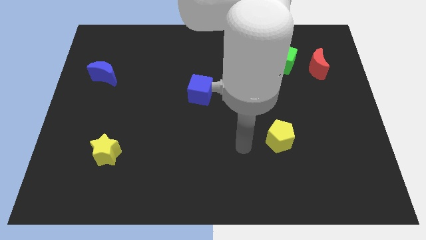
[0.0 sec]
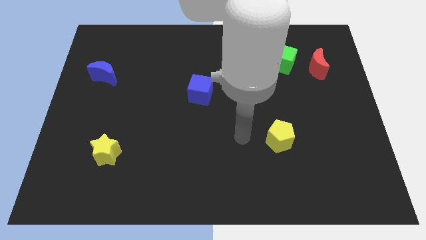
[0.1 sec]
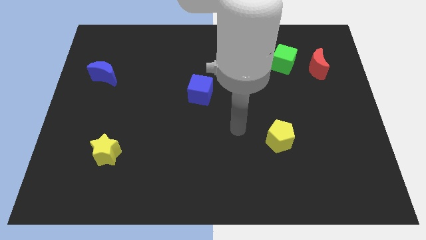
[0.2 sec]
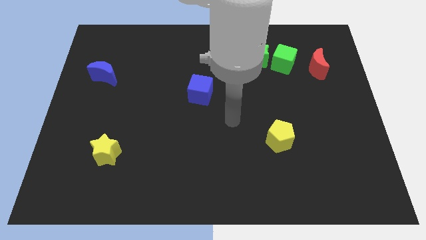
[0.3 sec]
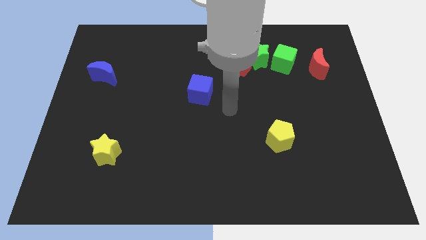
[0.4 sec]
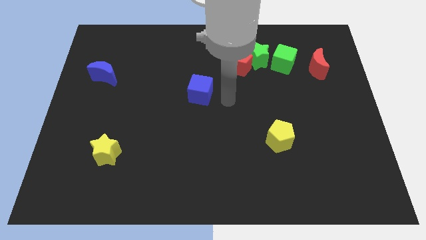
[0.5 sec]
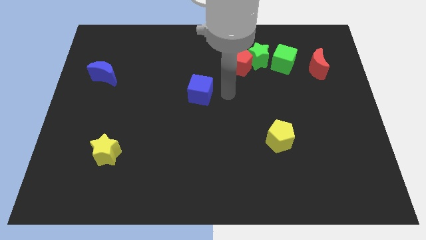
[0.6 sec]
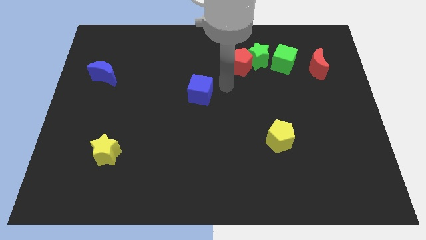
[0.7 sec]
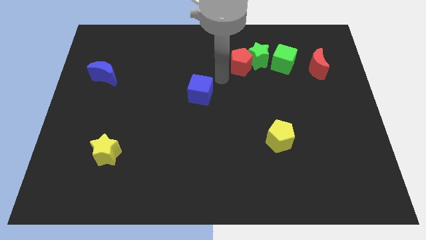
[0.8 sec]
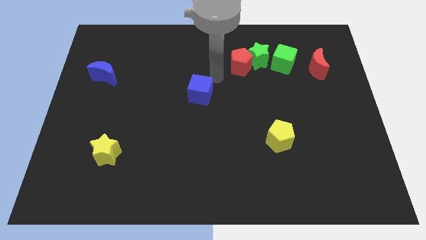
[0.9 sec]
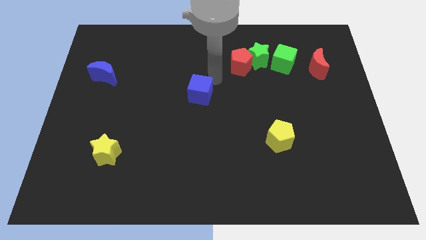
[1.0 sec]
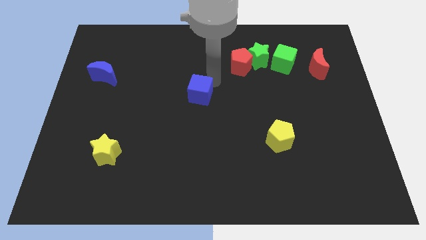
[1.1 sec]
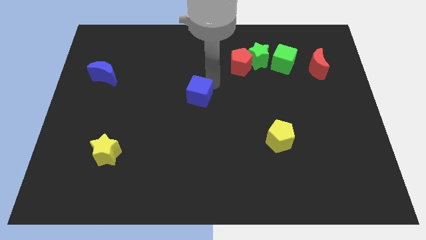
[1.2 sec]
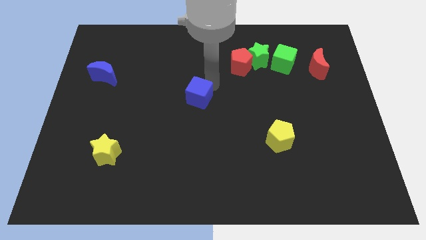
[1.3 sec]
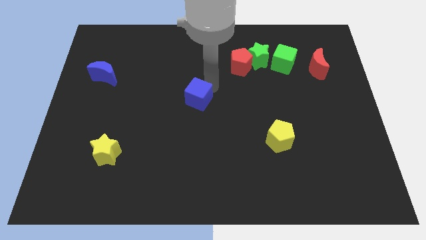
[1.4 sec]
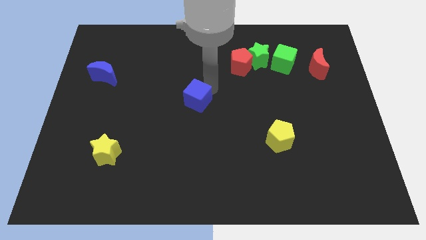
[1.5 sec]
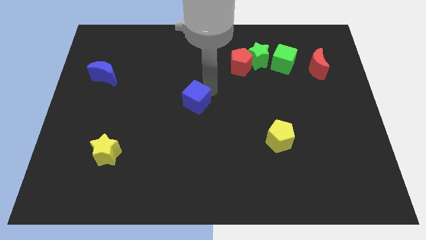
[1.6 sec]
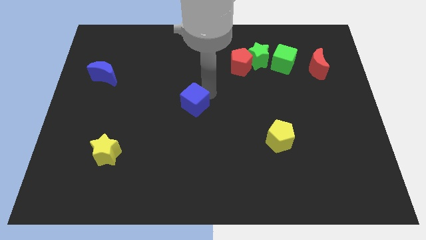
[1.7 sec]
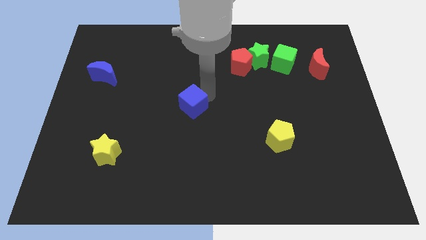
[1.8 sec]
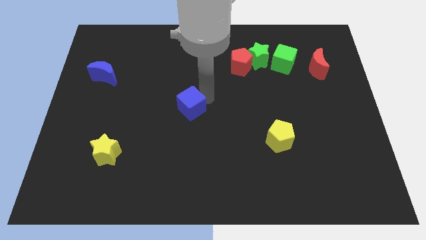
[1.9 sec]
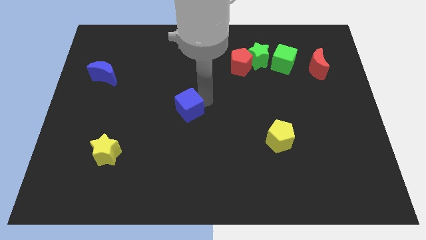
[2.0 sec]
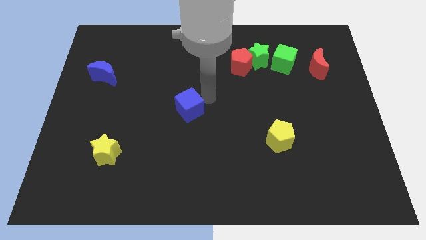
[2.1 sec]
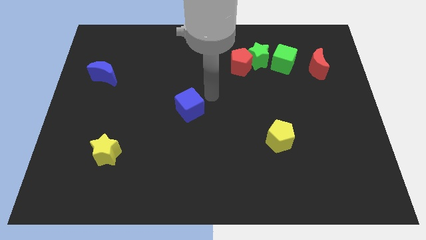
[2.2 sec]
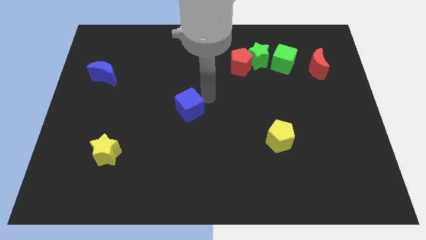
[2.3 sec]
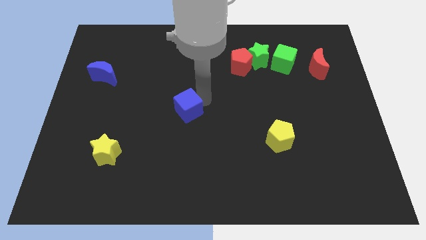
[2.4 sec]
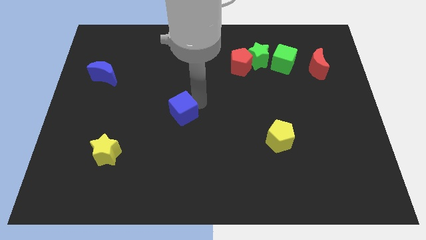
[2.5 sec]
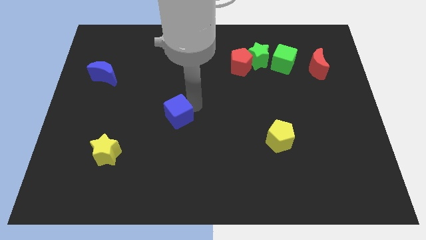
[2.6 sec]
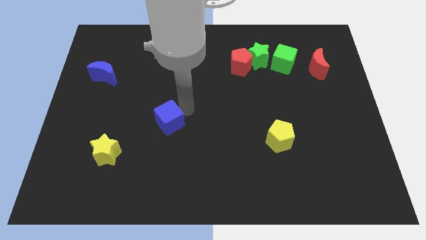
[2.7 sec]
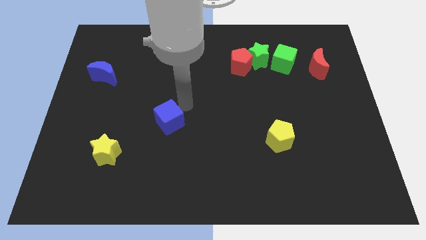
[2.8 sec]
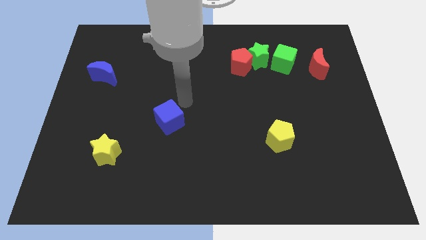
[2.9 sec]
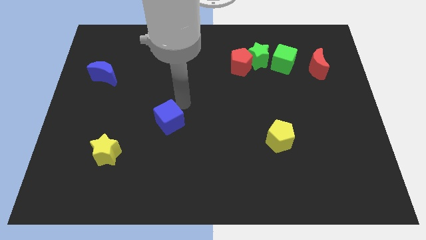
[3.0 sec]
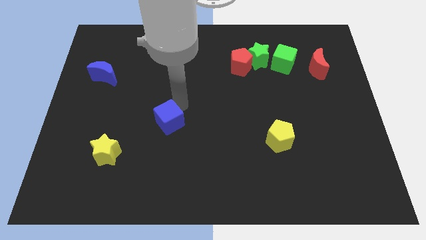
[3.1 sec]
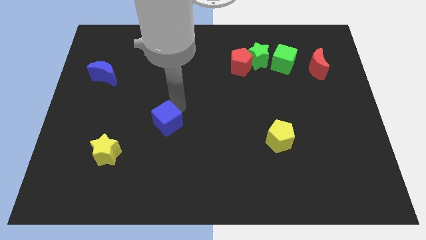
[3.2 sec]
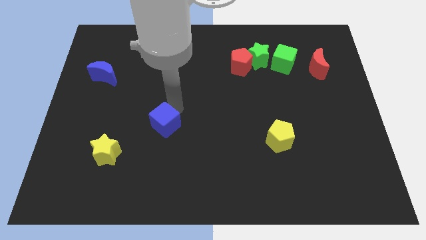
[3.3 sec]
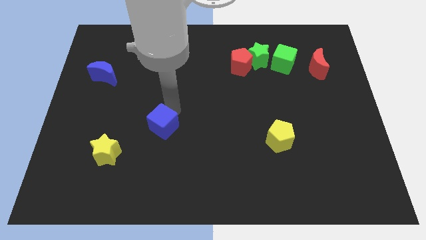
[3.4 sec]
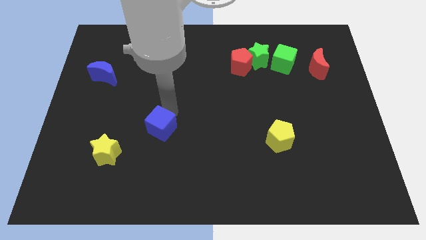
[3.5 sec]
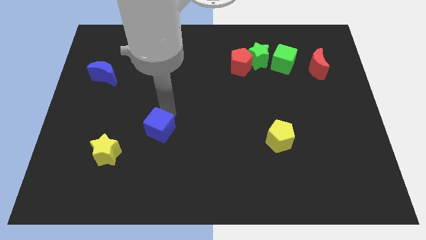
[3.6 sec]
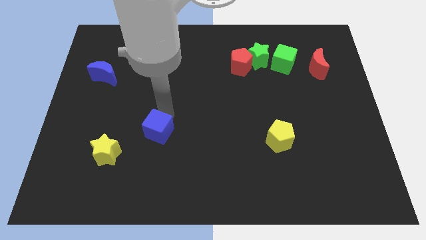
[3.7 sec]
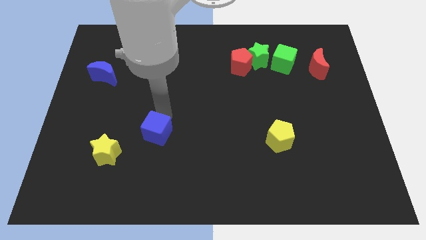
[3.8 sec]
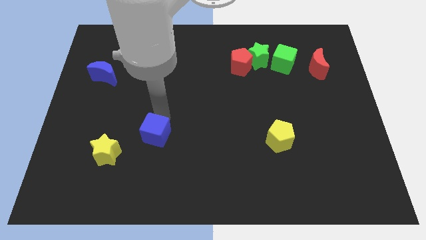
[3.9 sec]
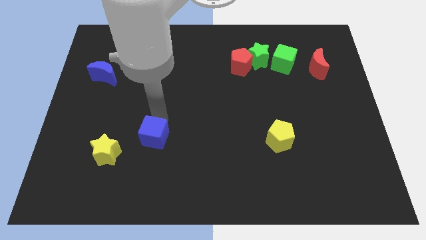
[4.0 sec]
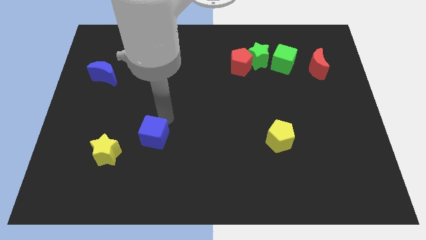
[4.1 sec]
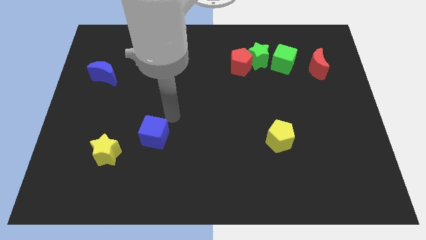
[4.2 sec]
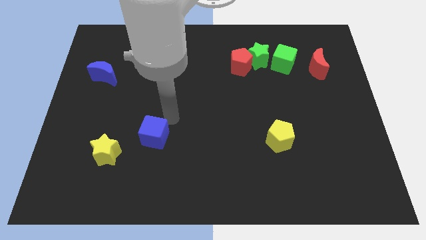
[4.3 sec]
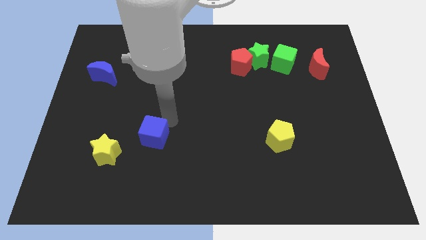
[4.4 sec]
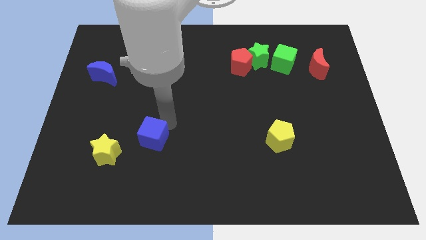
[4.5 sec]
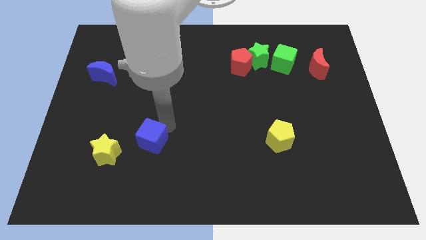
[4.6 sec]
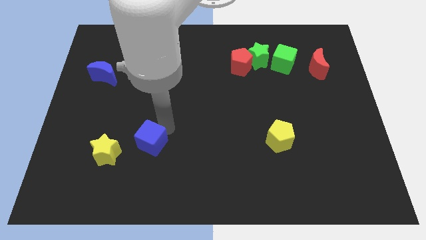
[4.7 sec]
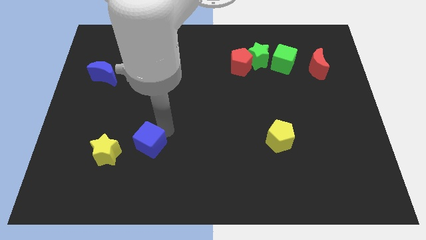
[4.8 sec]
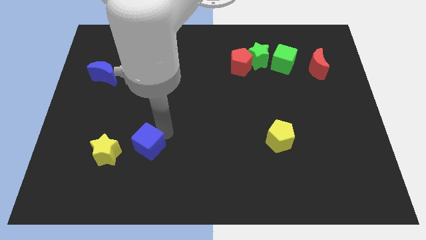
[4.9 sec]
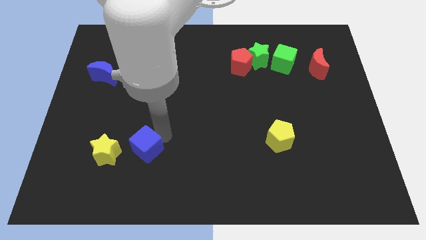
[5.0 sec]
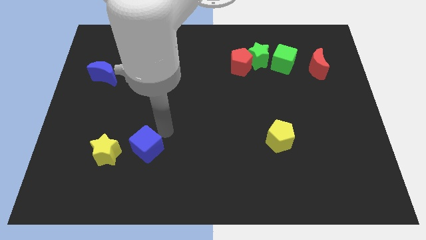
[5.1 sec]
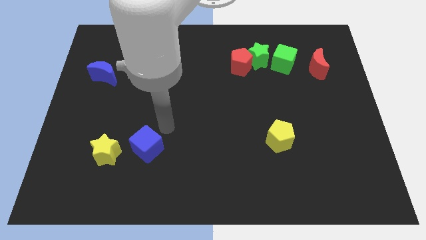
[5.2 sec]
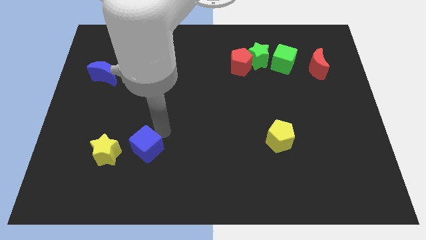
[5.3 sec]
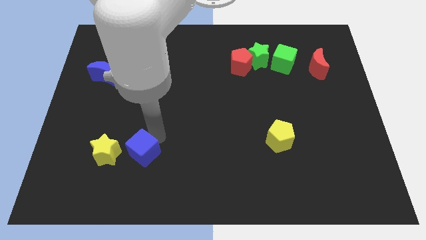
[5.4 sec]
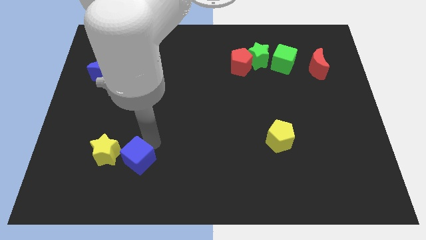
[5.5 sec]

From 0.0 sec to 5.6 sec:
move the blue cube downwards and then to the left

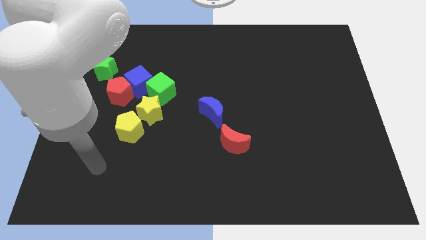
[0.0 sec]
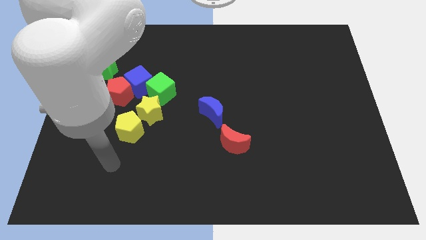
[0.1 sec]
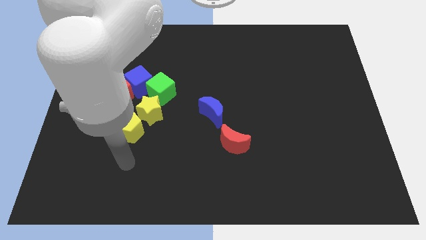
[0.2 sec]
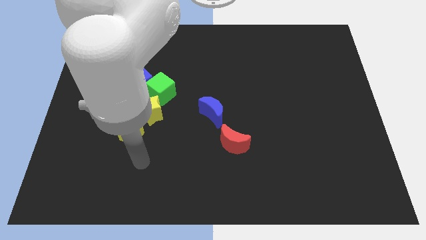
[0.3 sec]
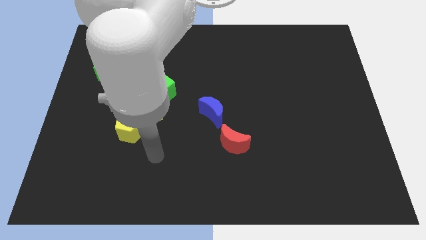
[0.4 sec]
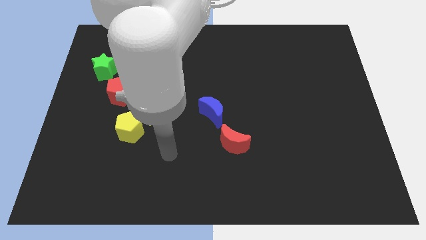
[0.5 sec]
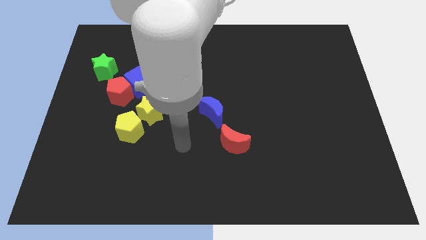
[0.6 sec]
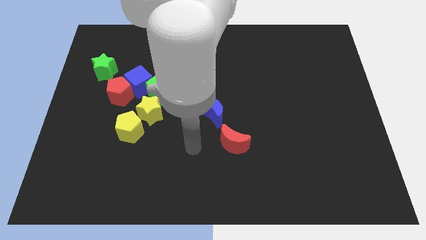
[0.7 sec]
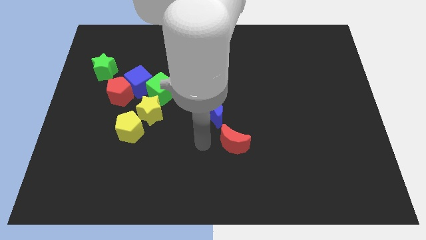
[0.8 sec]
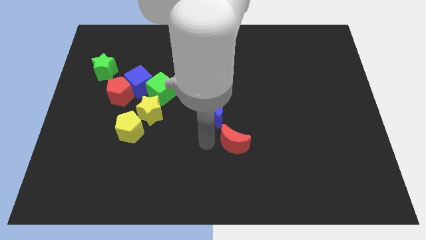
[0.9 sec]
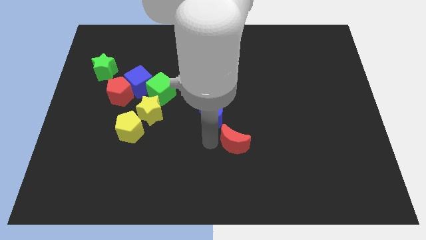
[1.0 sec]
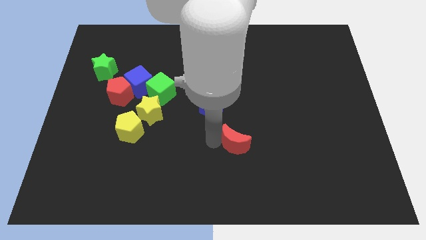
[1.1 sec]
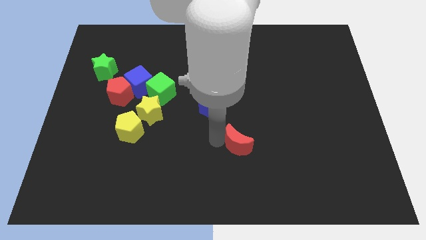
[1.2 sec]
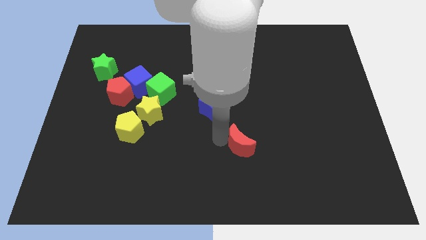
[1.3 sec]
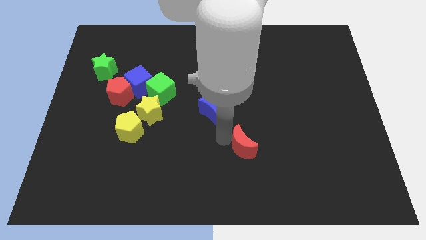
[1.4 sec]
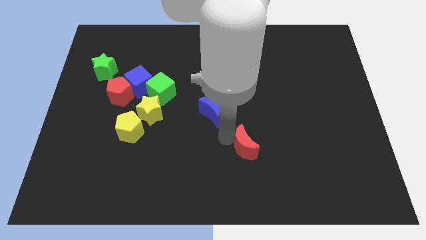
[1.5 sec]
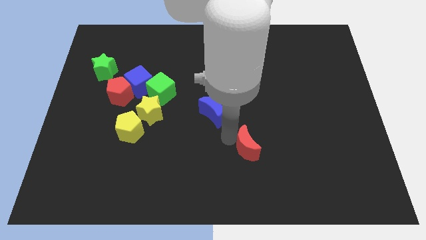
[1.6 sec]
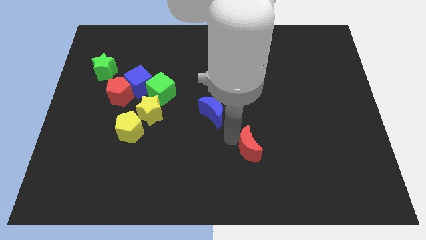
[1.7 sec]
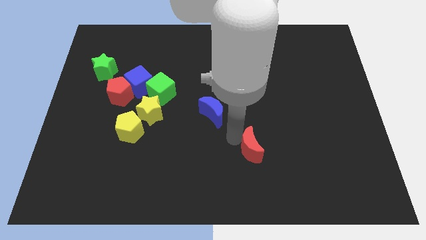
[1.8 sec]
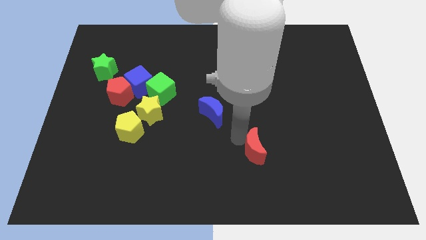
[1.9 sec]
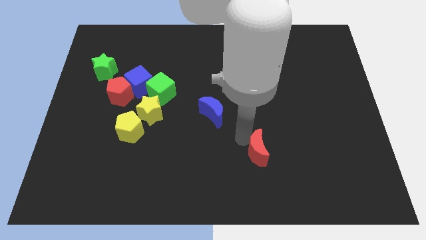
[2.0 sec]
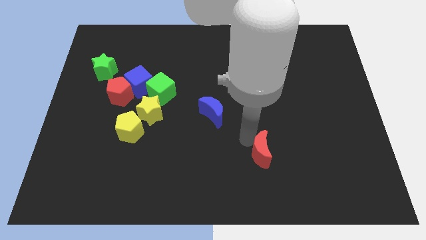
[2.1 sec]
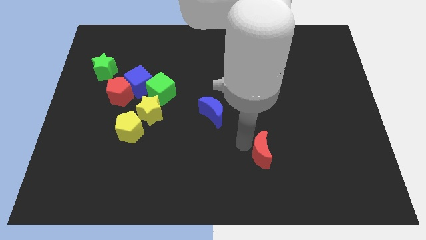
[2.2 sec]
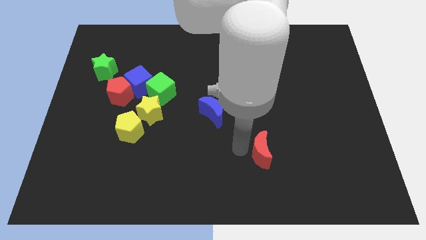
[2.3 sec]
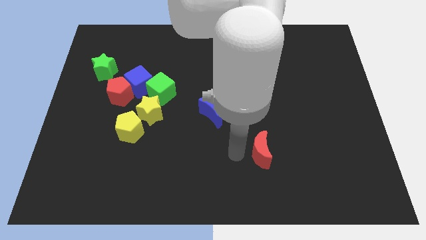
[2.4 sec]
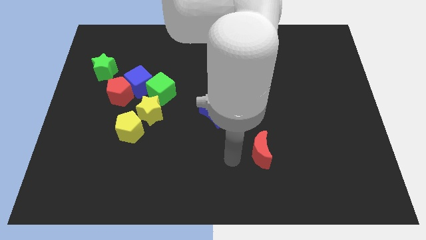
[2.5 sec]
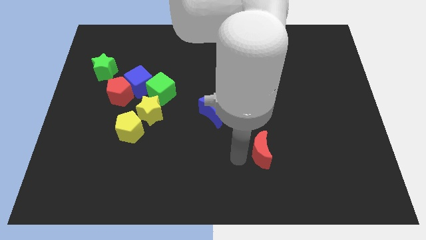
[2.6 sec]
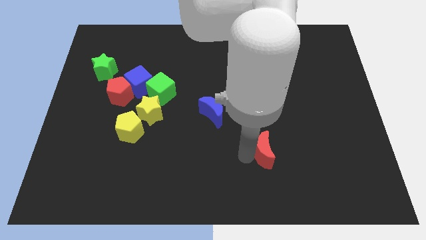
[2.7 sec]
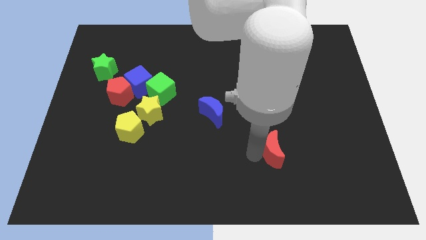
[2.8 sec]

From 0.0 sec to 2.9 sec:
slide the red moon a bit to the right
